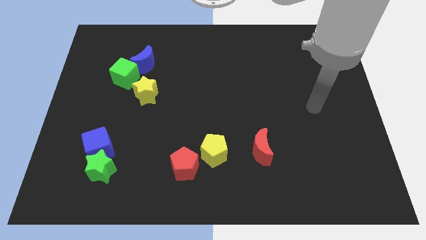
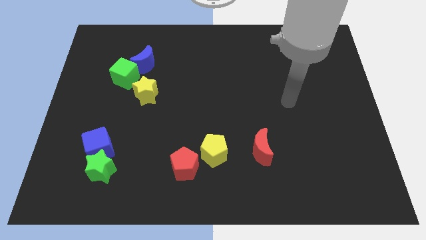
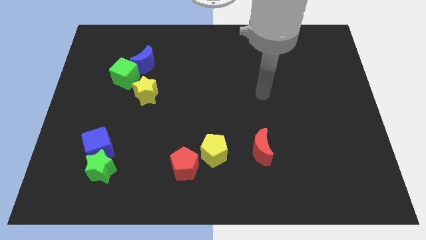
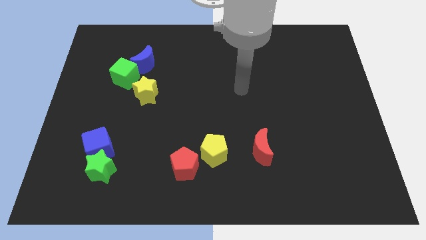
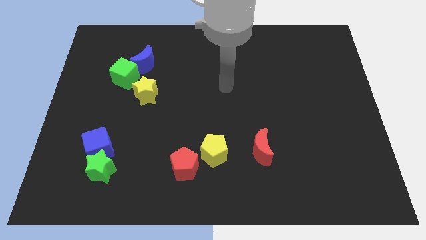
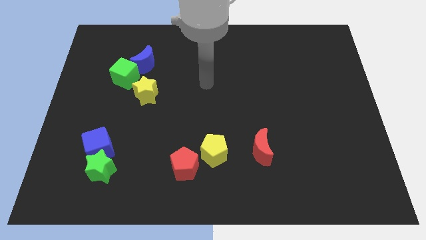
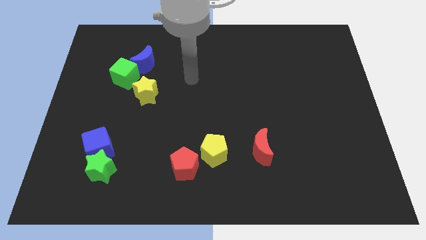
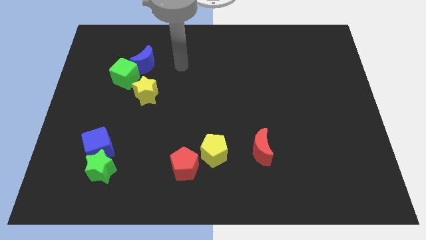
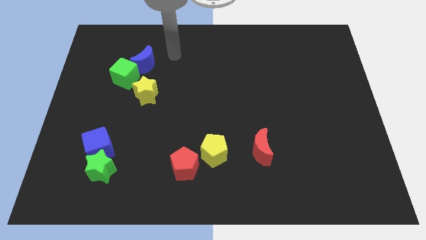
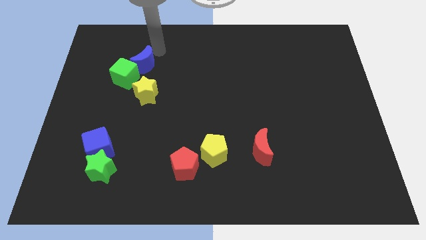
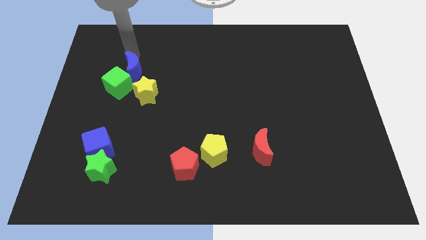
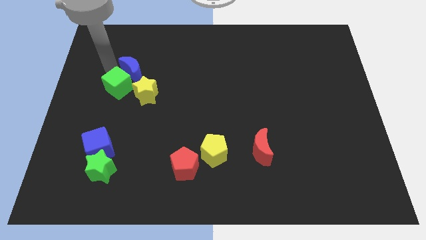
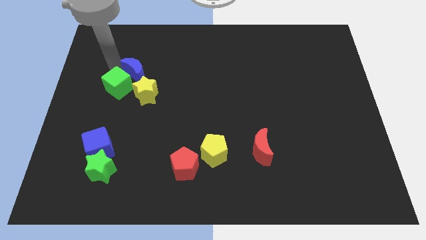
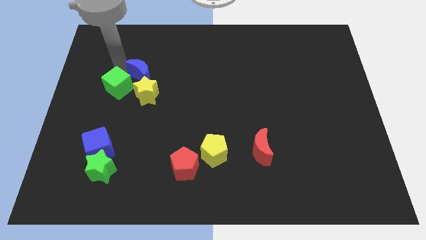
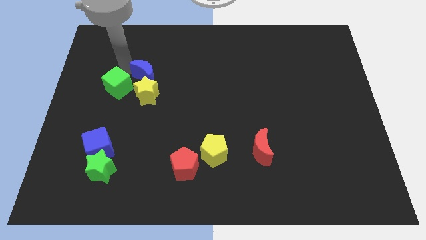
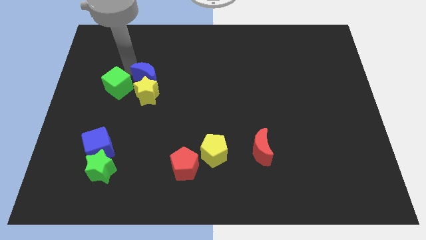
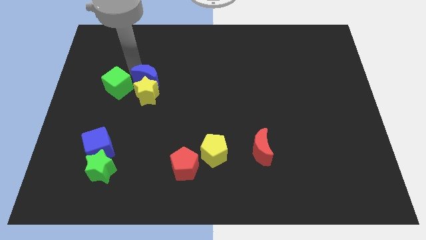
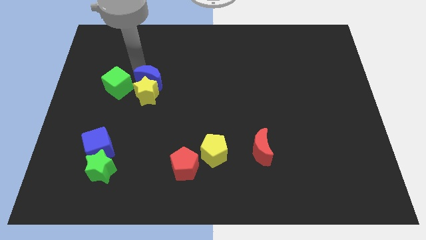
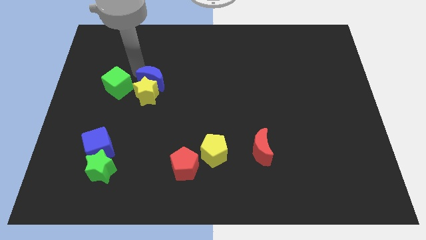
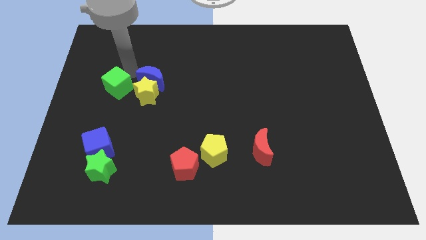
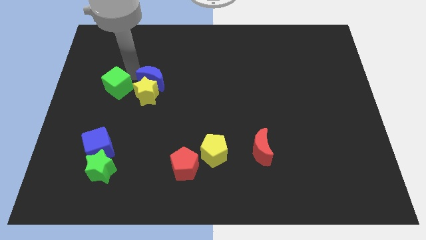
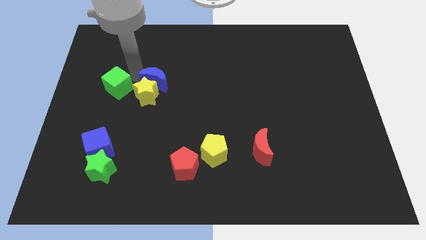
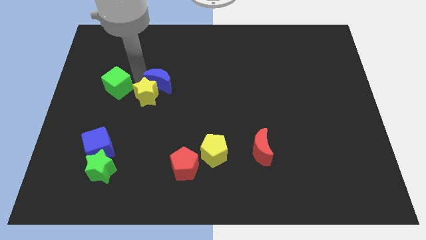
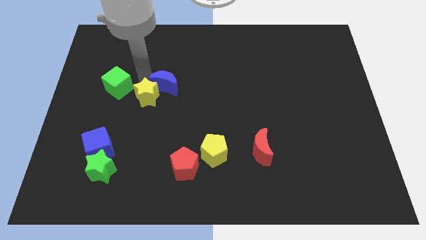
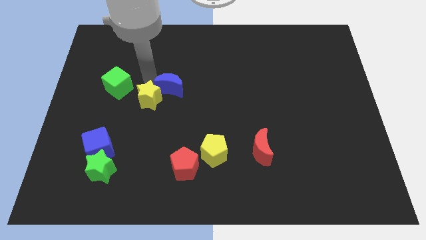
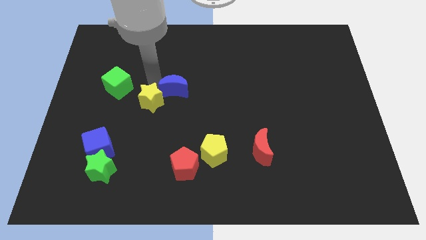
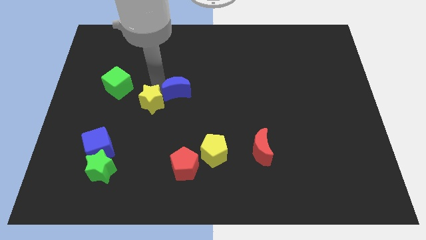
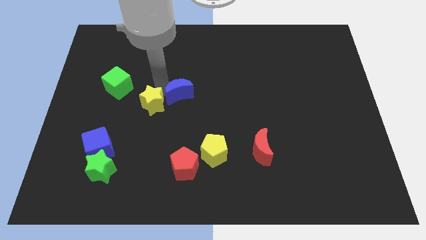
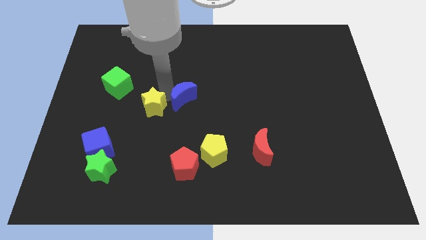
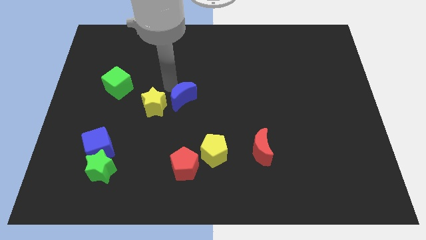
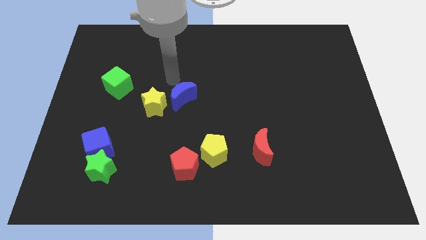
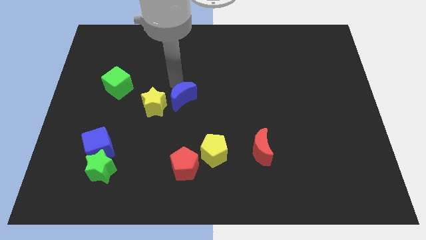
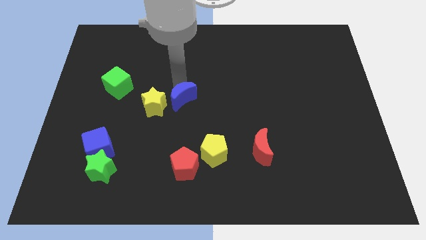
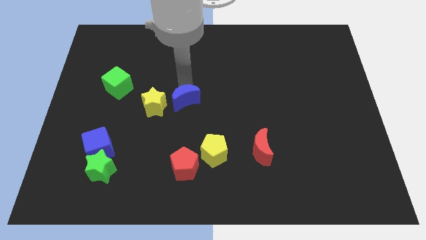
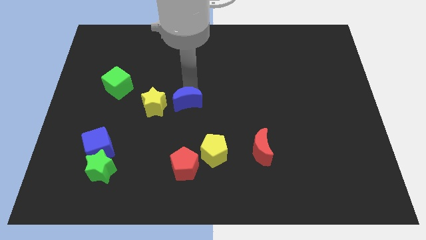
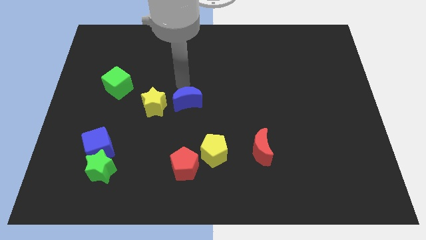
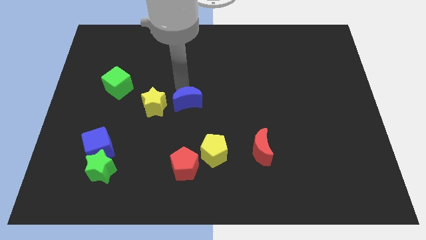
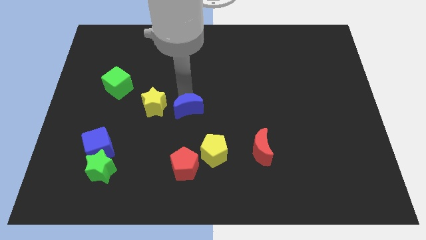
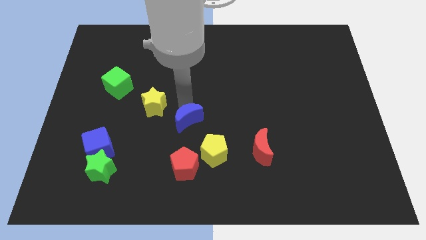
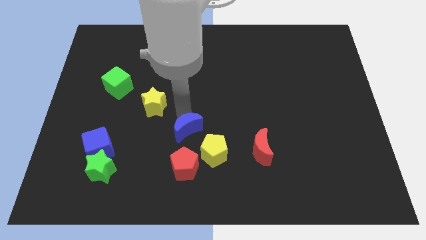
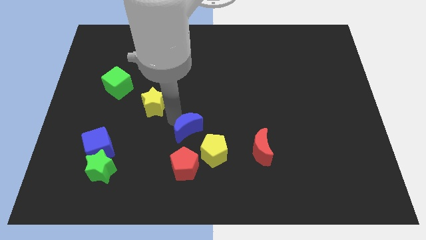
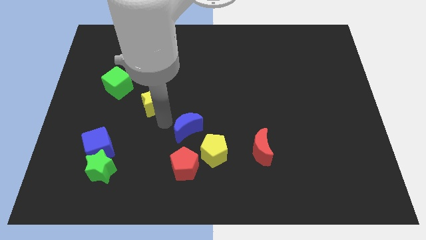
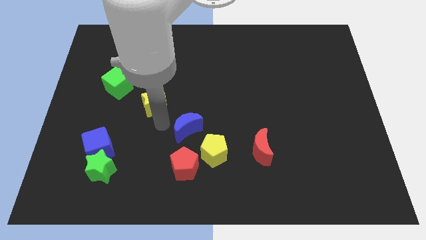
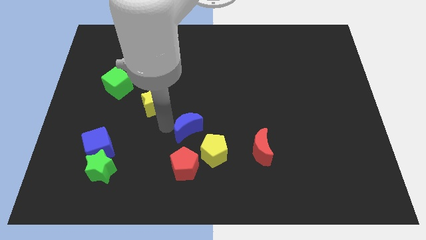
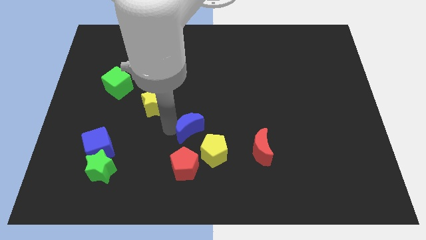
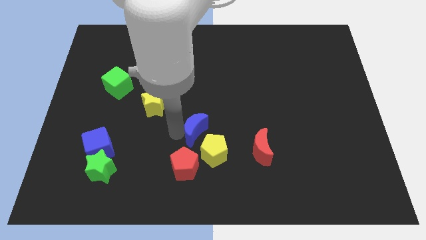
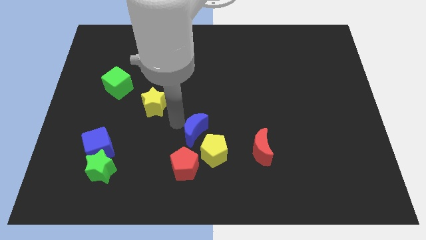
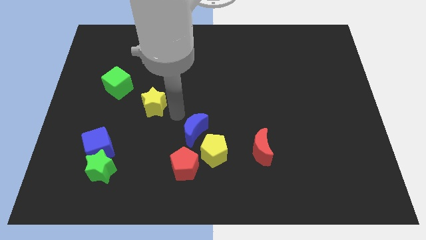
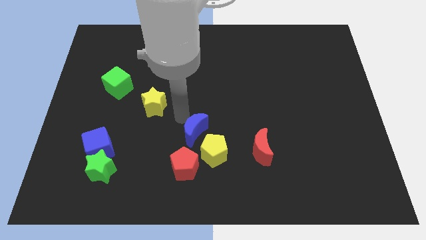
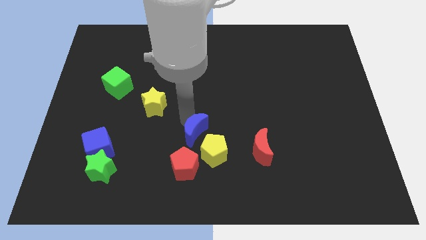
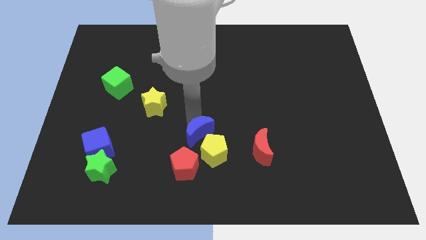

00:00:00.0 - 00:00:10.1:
put the blue moon close to the yellow pentagon

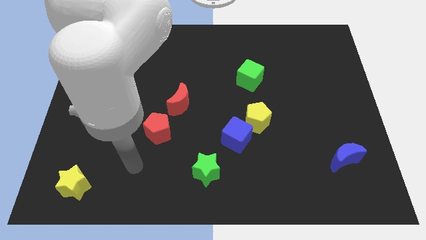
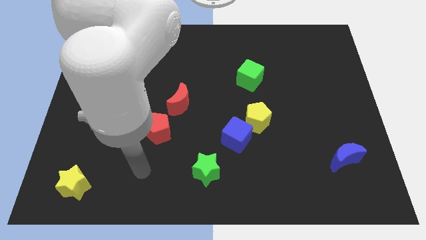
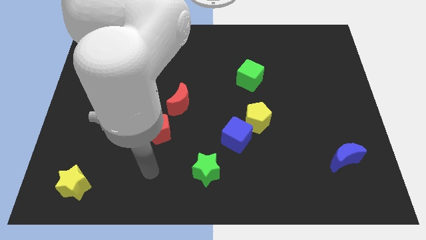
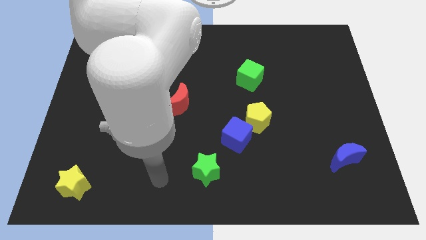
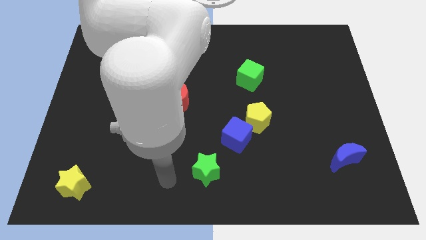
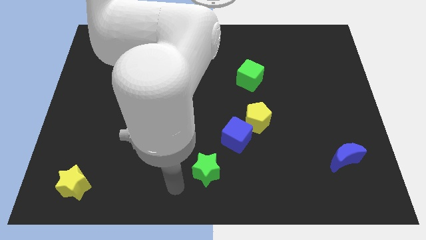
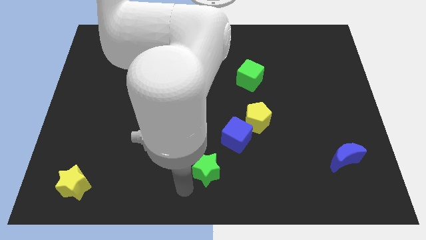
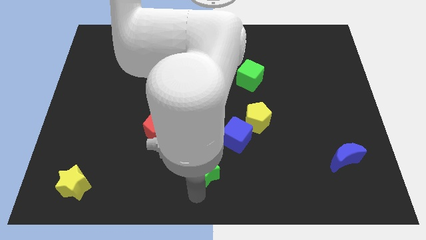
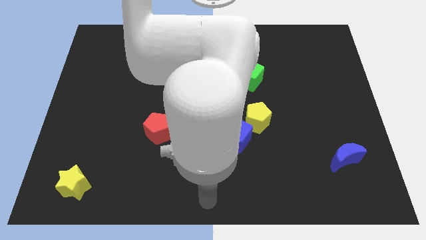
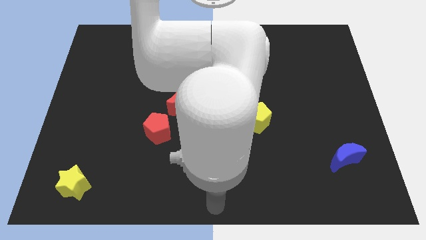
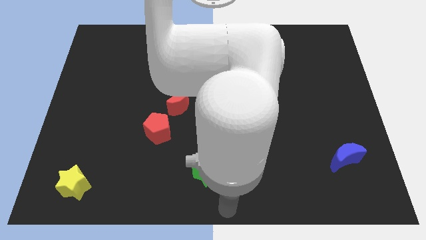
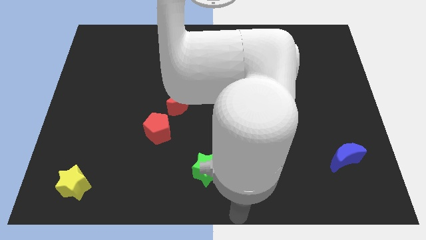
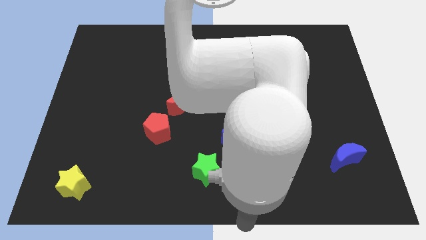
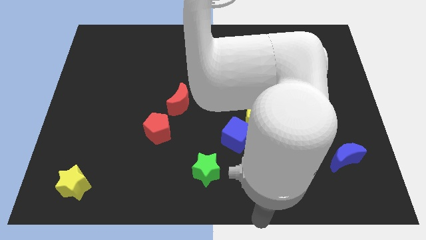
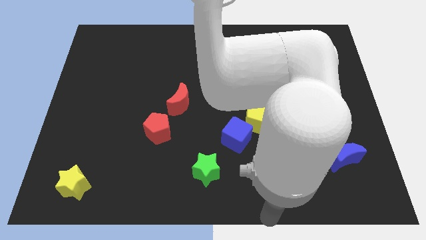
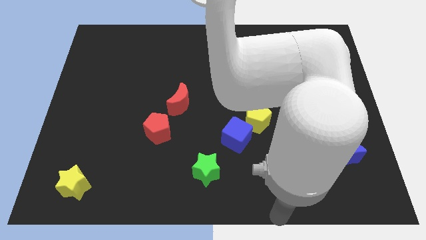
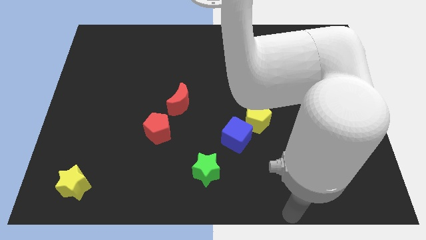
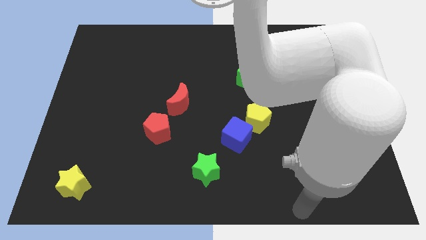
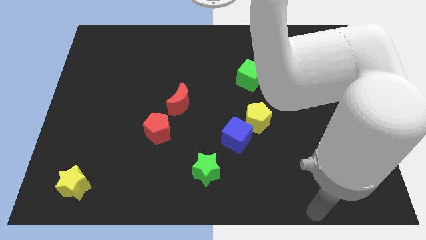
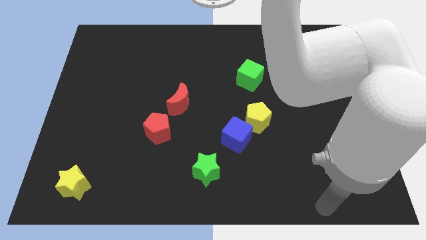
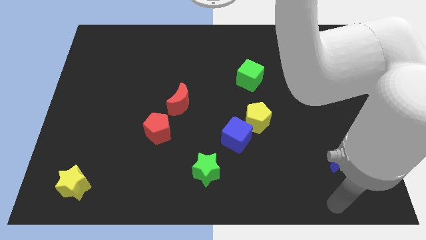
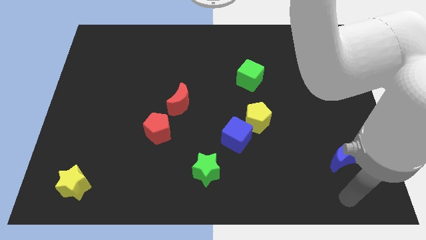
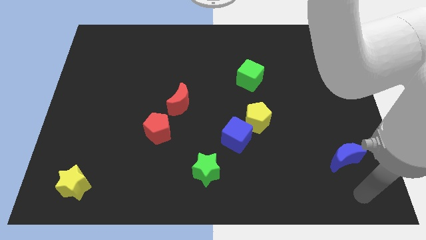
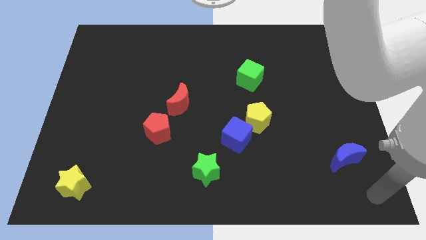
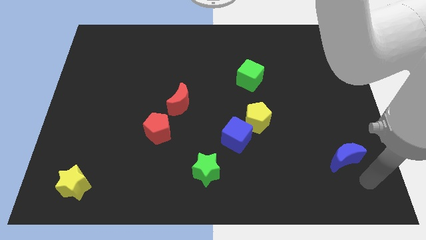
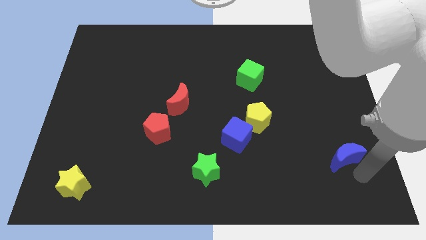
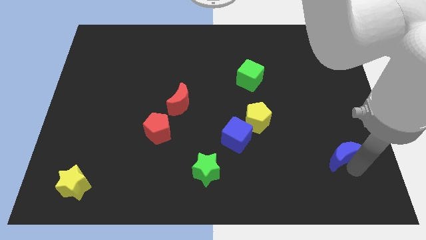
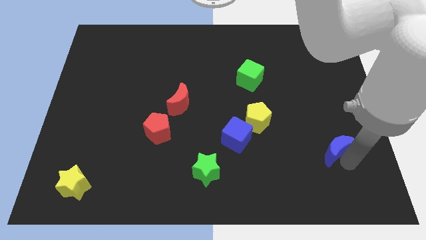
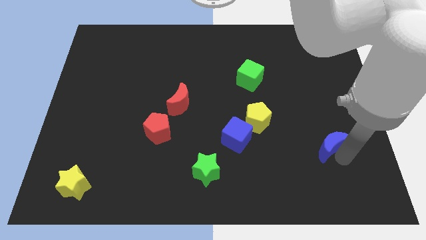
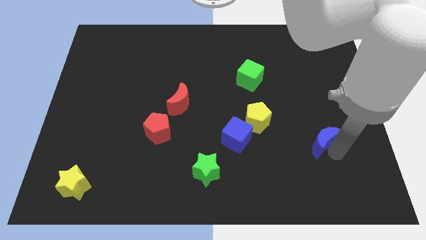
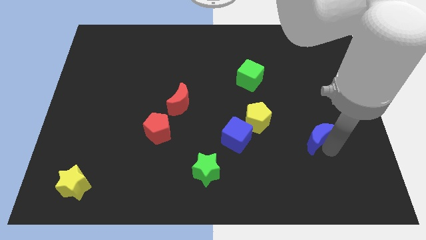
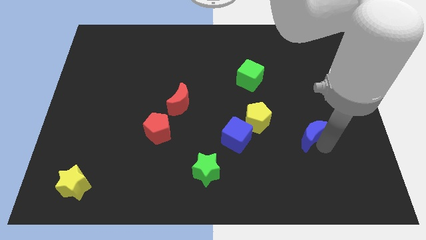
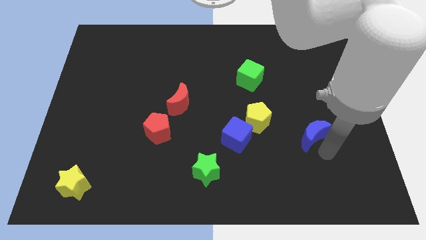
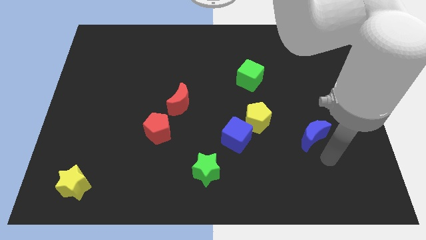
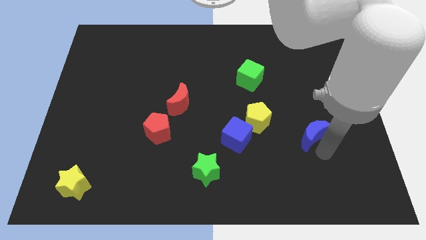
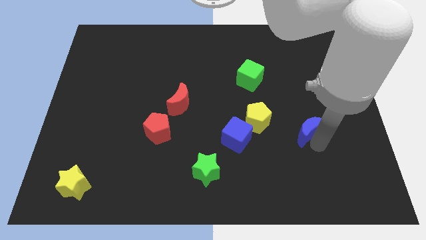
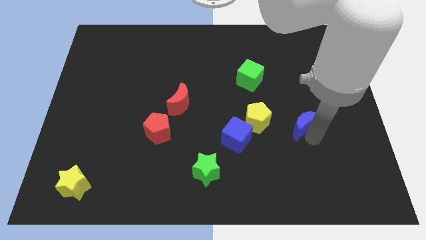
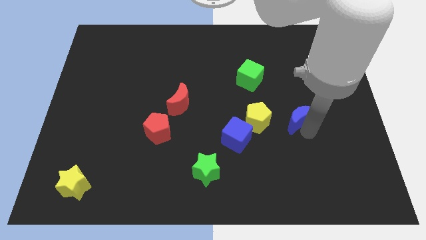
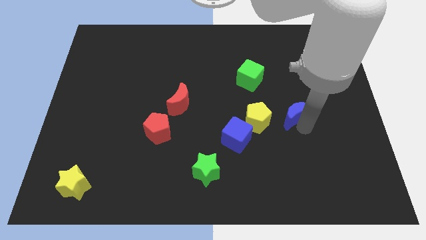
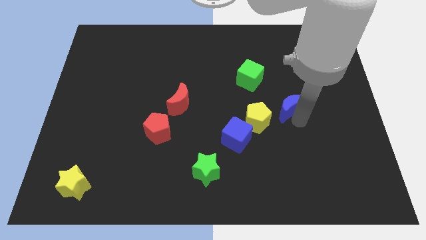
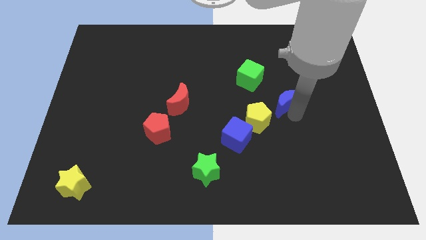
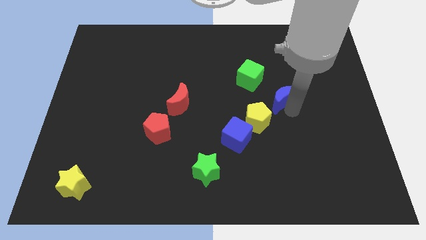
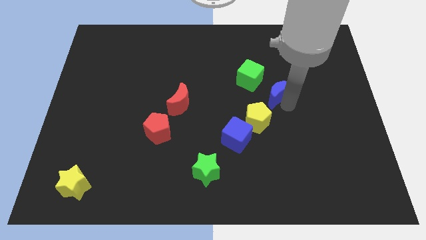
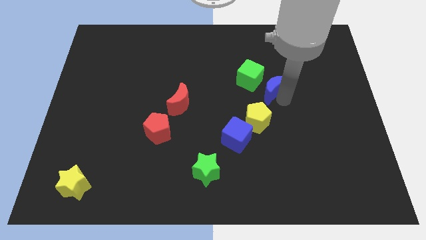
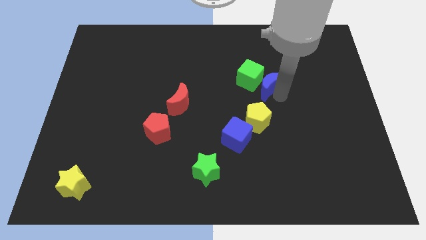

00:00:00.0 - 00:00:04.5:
move the blue moon next to the green cube
